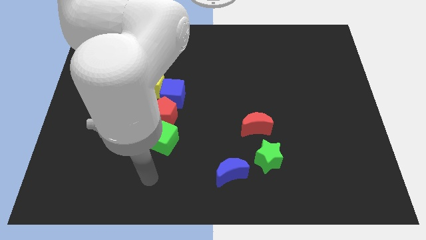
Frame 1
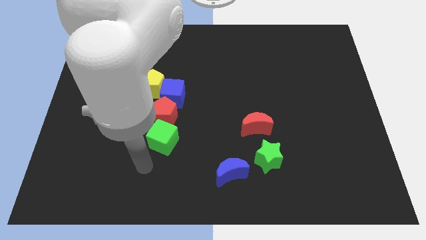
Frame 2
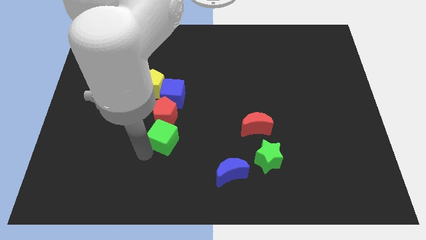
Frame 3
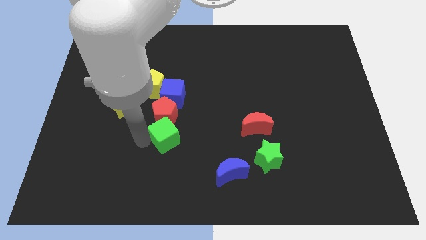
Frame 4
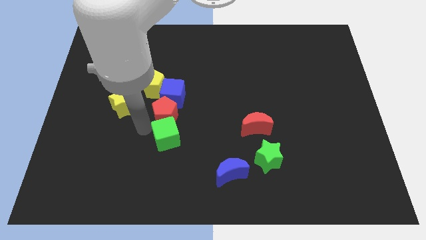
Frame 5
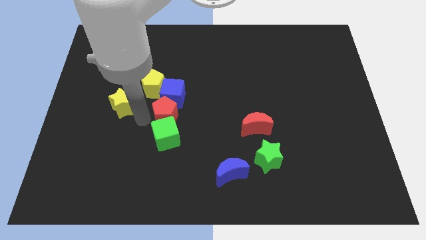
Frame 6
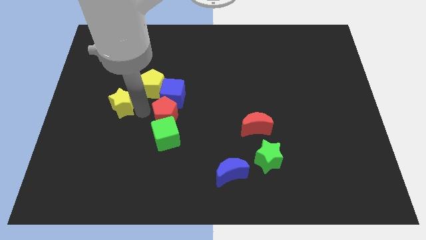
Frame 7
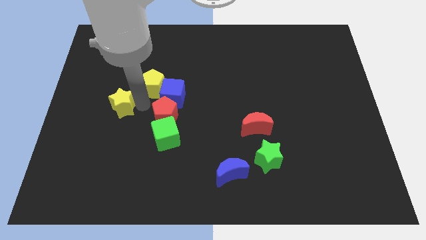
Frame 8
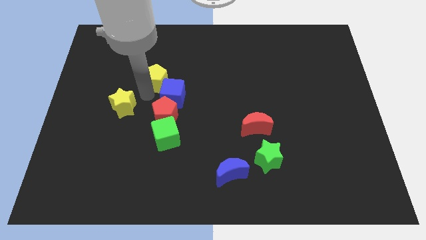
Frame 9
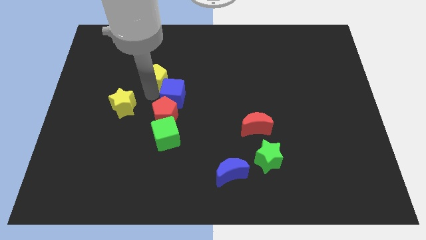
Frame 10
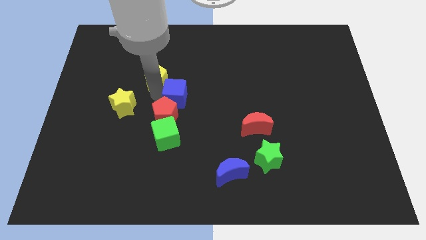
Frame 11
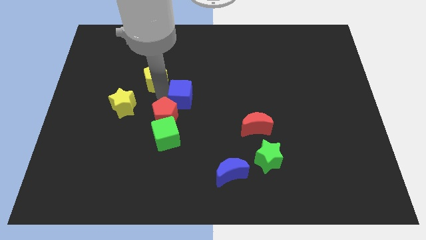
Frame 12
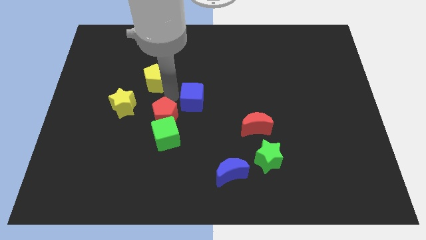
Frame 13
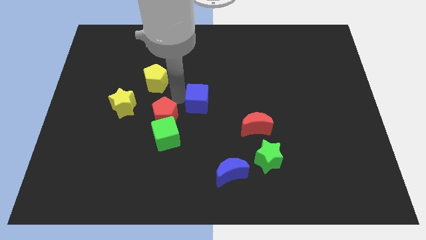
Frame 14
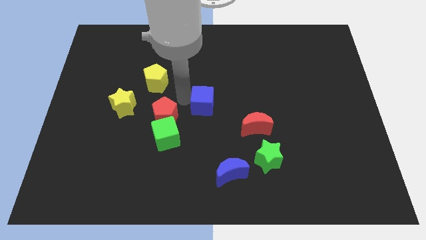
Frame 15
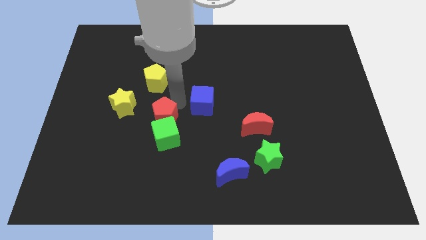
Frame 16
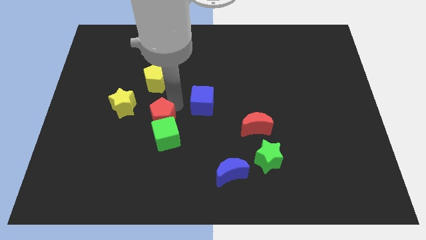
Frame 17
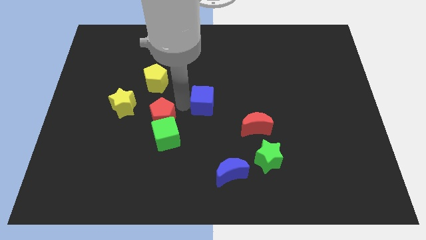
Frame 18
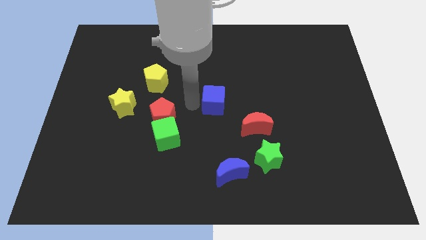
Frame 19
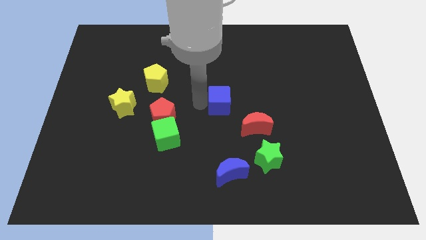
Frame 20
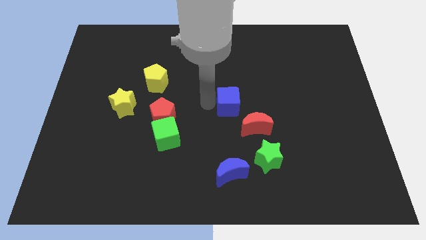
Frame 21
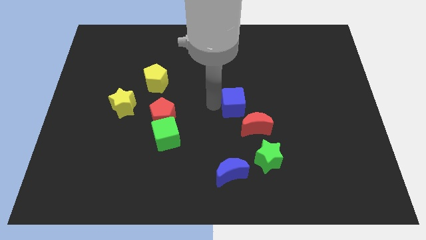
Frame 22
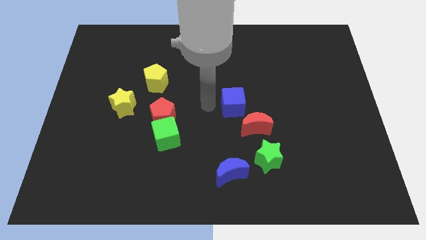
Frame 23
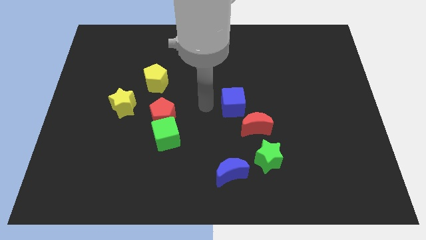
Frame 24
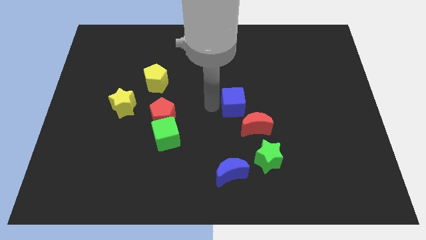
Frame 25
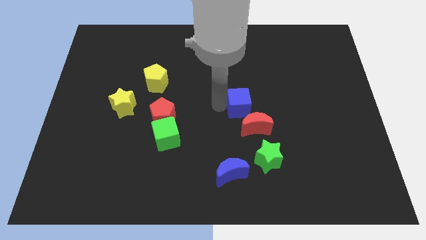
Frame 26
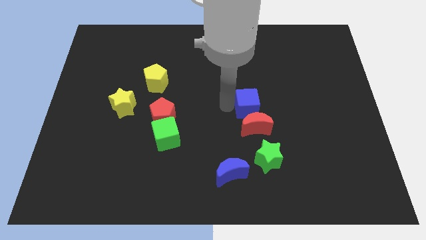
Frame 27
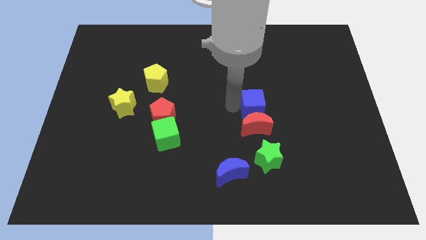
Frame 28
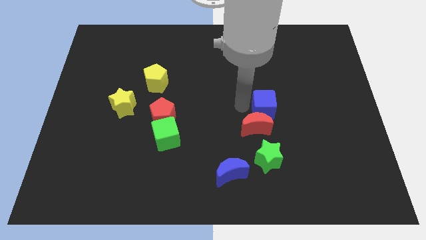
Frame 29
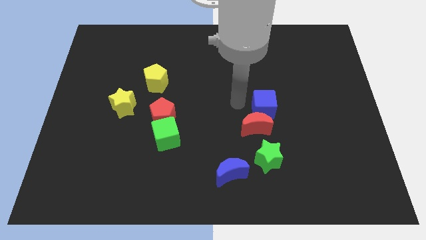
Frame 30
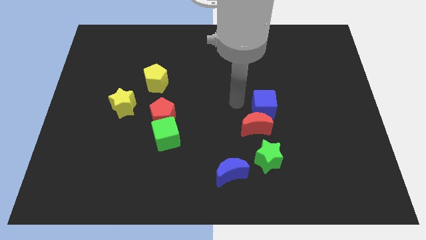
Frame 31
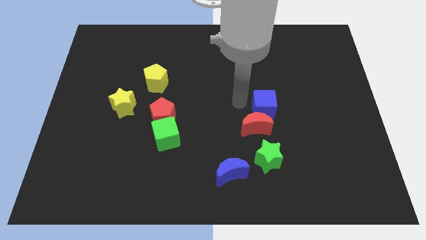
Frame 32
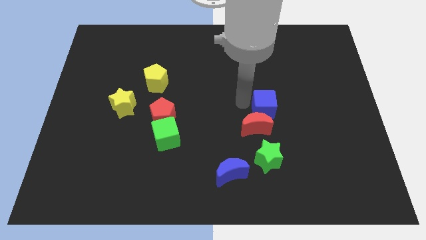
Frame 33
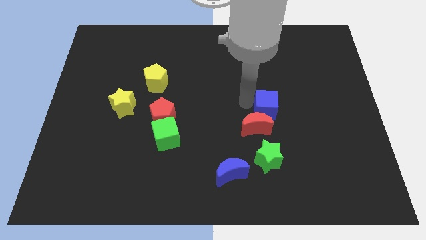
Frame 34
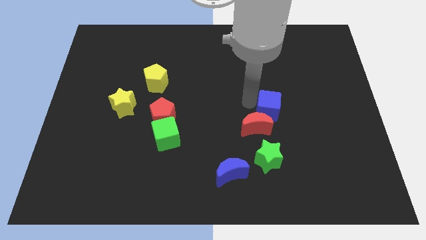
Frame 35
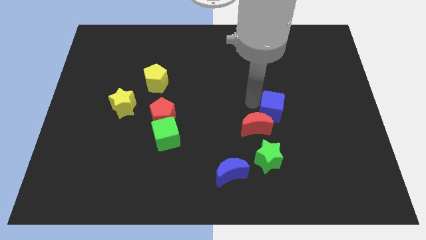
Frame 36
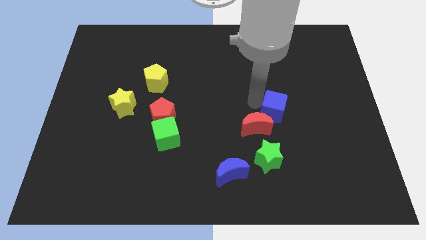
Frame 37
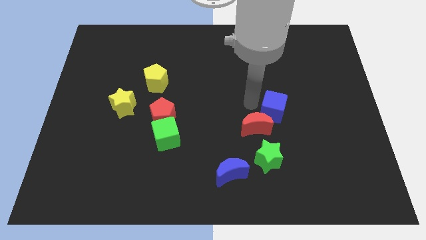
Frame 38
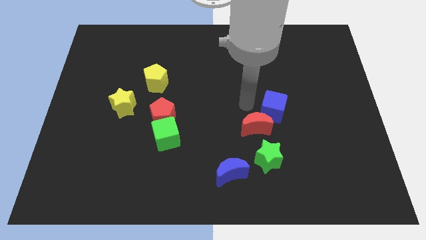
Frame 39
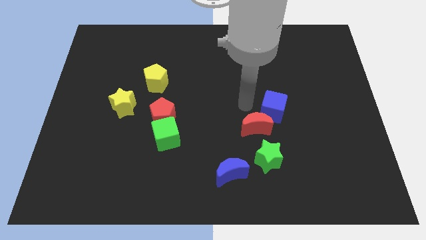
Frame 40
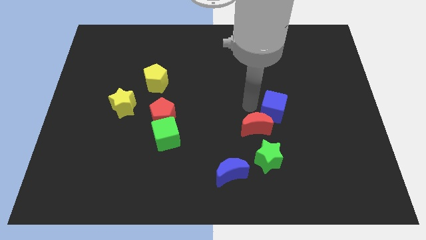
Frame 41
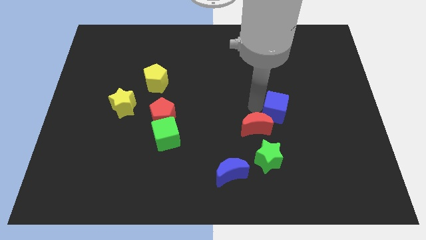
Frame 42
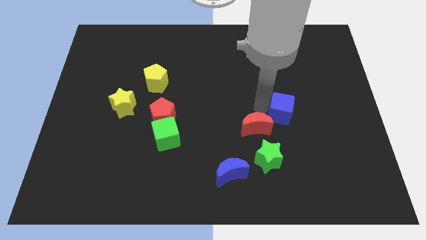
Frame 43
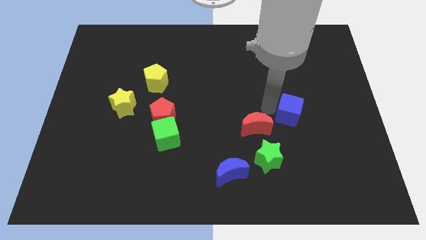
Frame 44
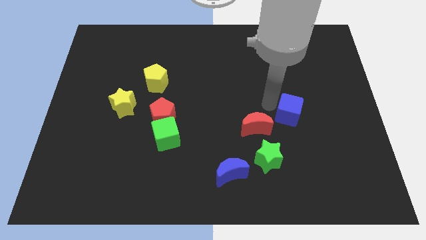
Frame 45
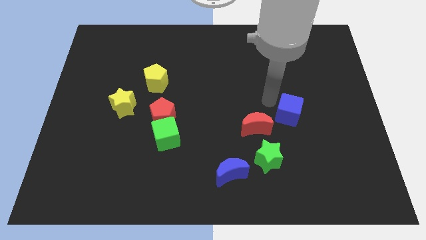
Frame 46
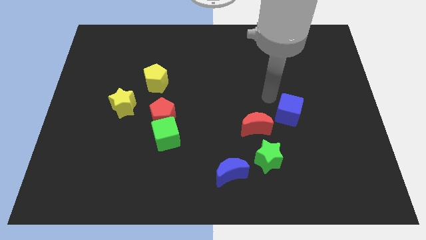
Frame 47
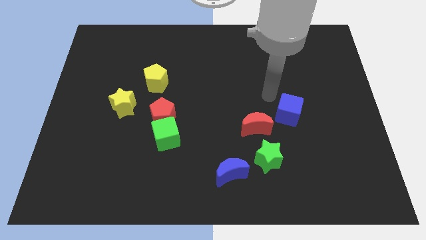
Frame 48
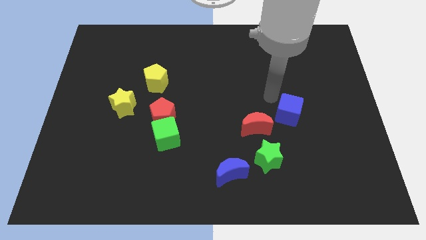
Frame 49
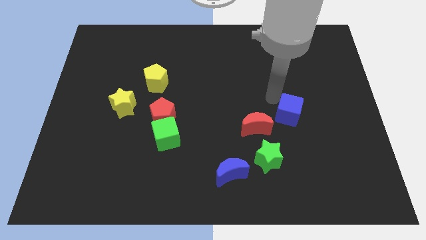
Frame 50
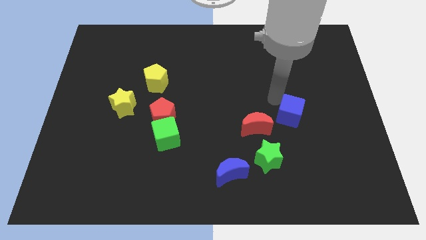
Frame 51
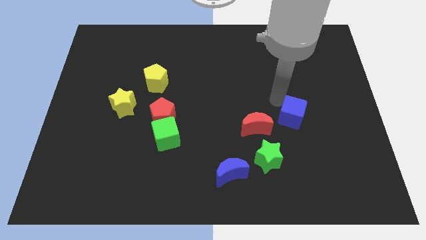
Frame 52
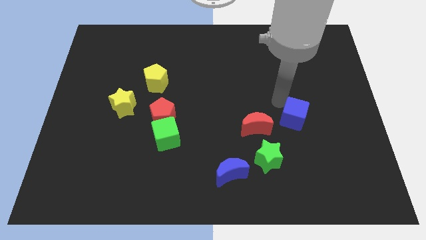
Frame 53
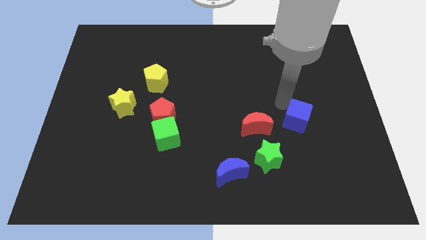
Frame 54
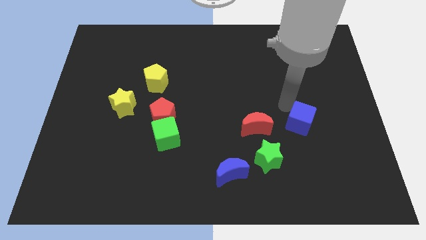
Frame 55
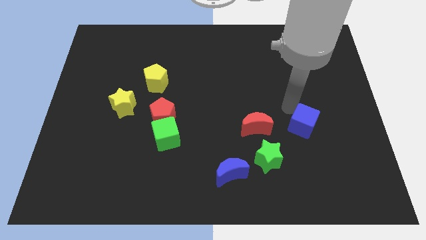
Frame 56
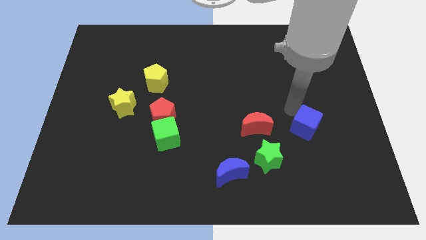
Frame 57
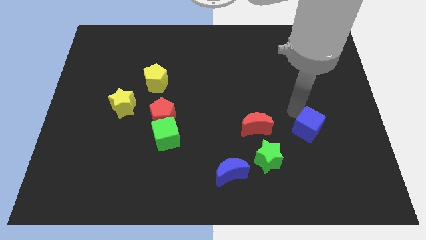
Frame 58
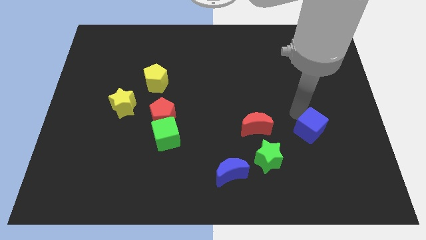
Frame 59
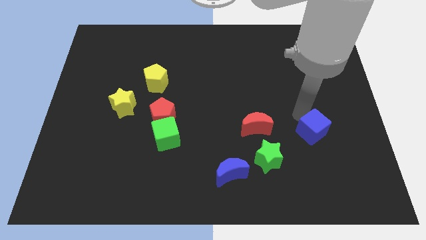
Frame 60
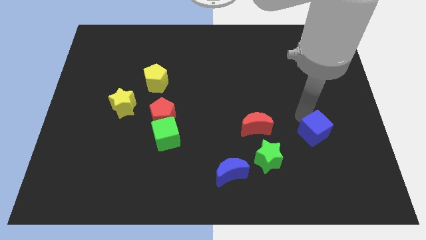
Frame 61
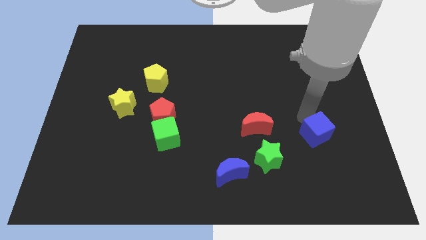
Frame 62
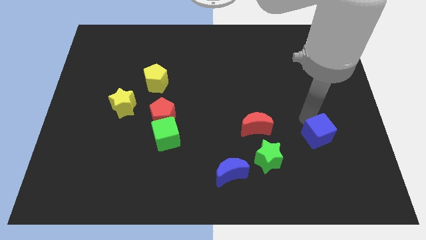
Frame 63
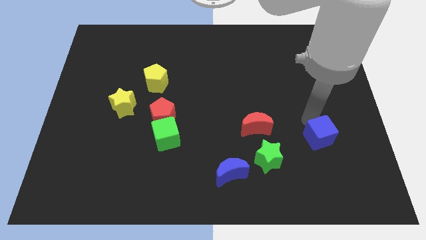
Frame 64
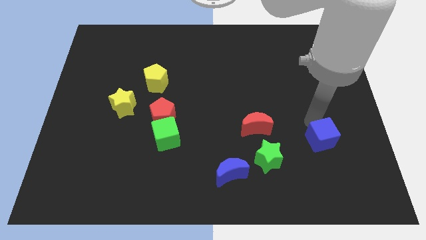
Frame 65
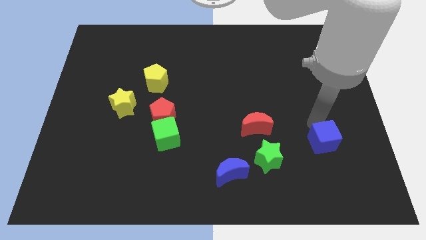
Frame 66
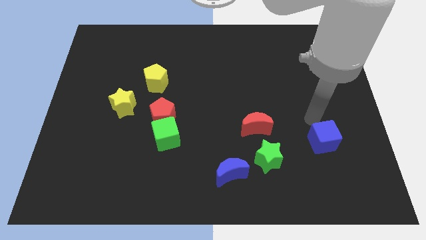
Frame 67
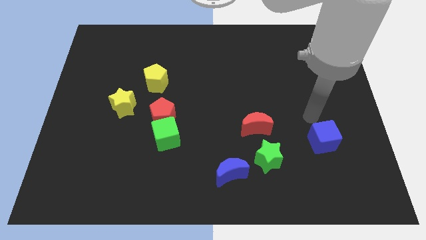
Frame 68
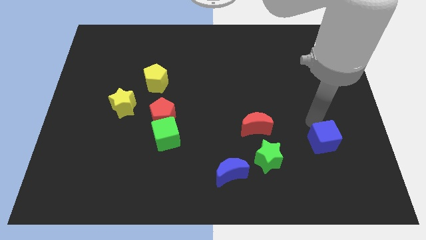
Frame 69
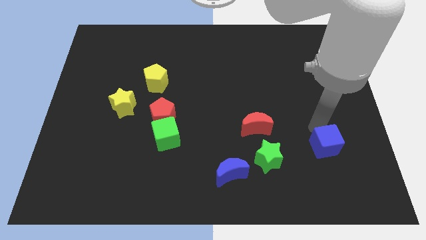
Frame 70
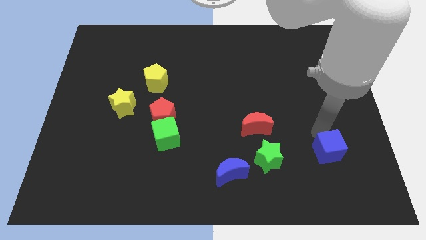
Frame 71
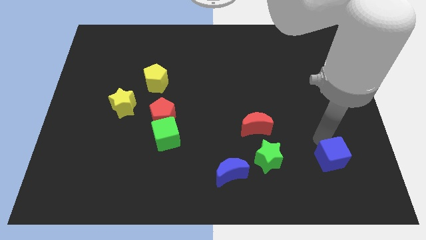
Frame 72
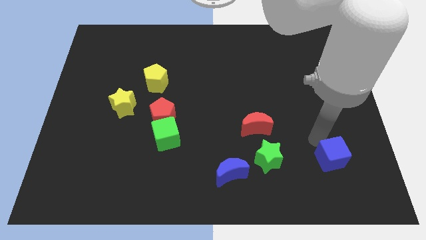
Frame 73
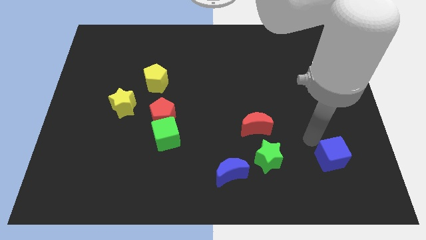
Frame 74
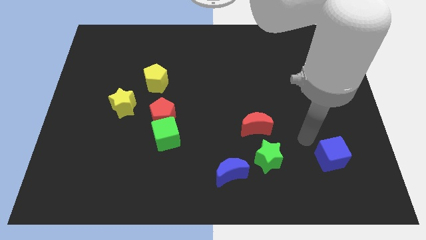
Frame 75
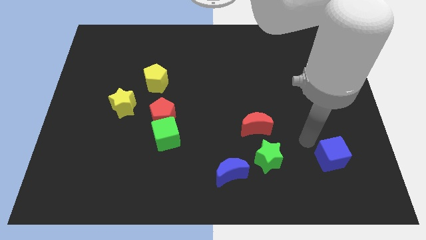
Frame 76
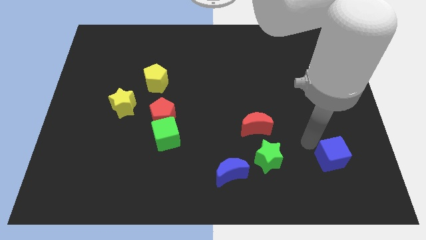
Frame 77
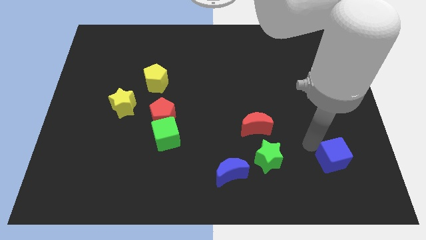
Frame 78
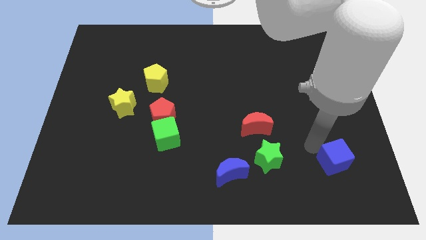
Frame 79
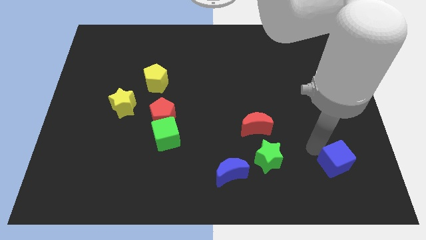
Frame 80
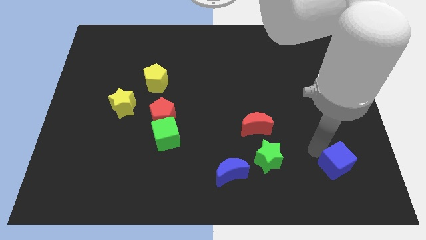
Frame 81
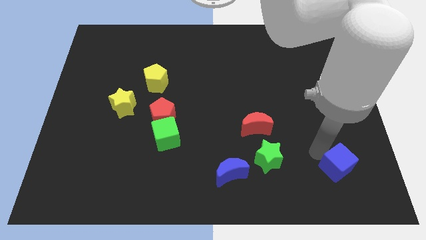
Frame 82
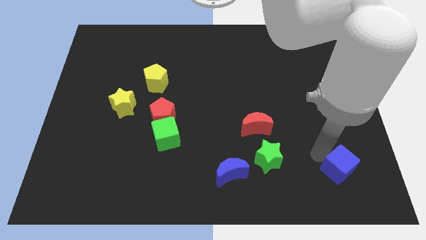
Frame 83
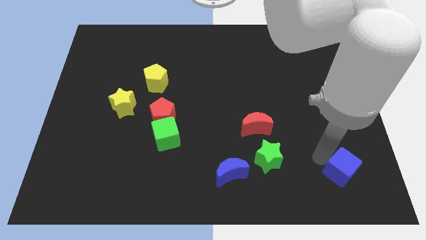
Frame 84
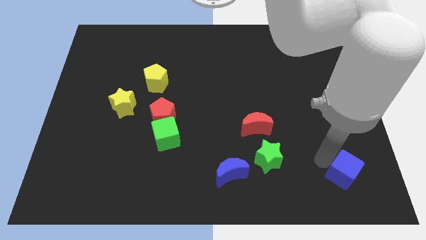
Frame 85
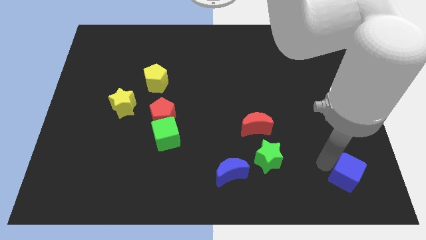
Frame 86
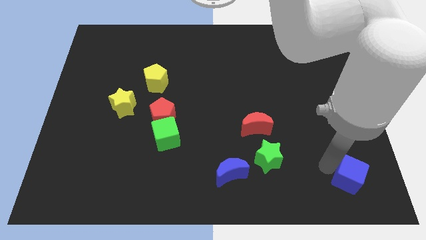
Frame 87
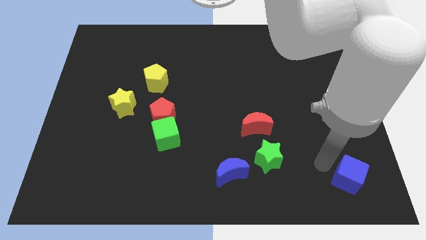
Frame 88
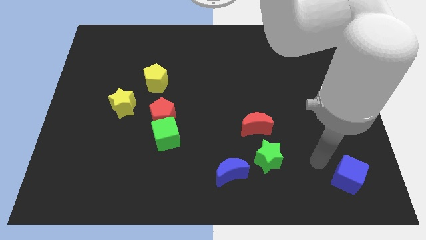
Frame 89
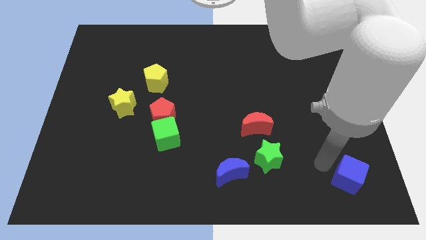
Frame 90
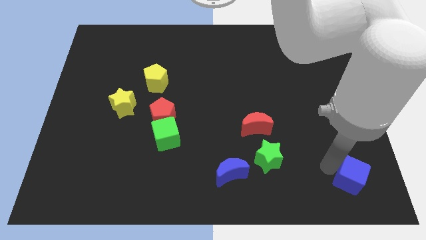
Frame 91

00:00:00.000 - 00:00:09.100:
slide the blue cube to the lower right corner
